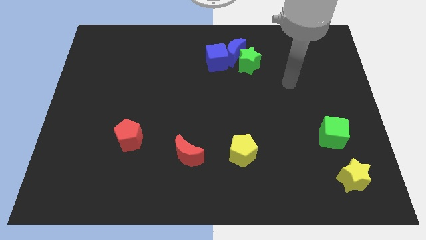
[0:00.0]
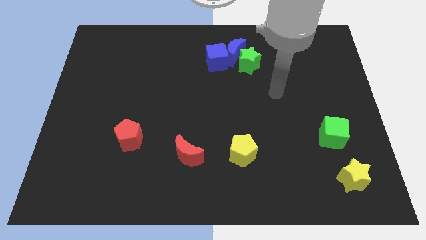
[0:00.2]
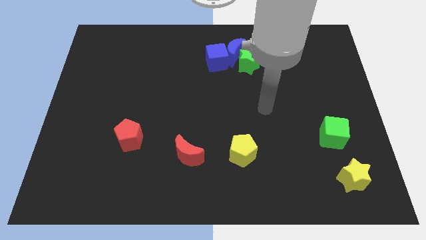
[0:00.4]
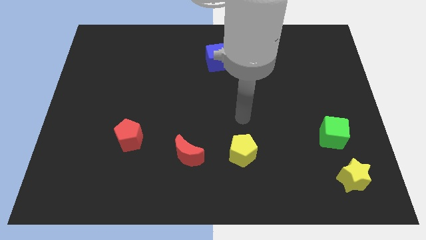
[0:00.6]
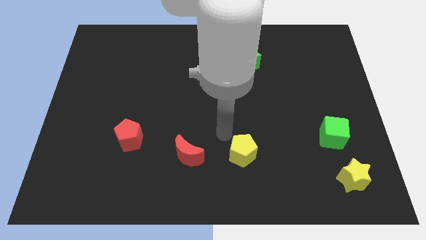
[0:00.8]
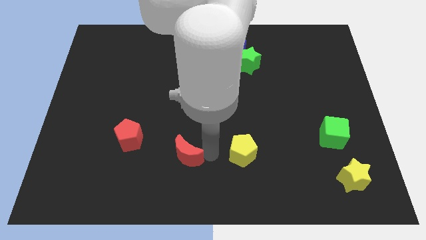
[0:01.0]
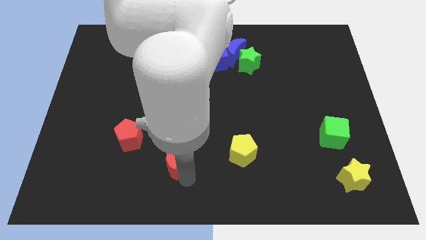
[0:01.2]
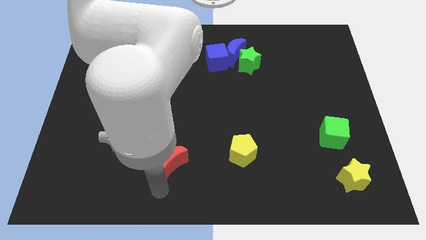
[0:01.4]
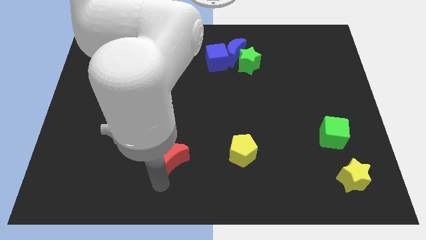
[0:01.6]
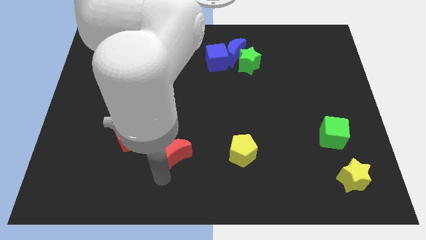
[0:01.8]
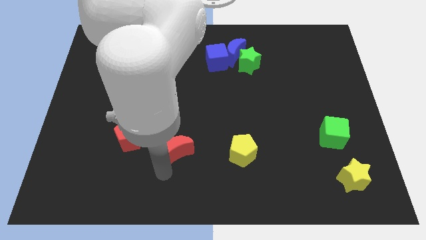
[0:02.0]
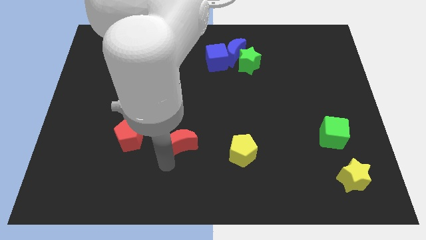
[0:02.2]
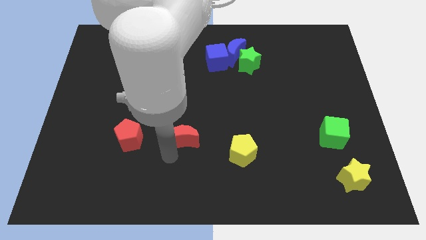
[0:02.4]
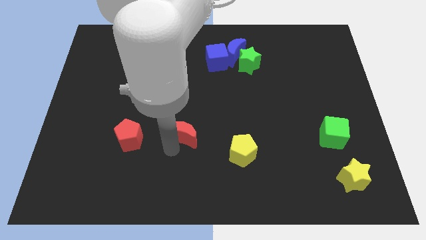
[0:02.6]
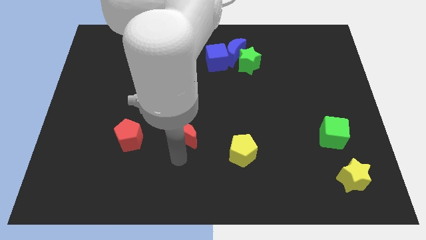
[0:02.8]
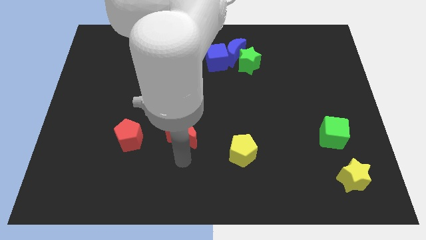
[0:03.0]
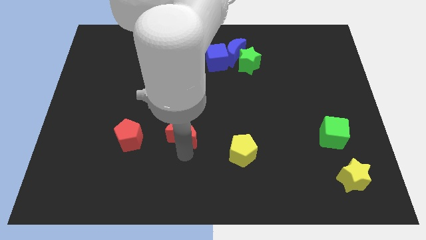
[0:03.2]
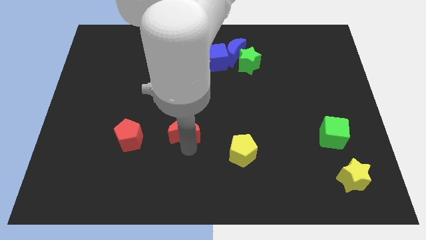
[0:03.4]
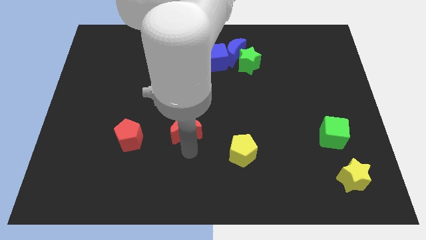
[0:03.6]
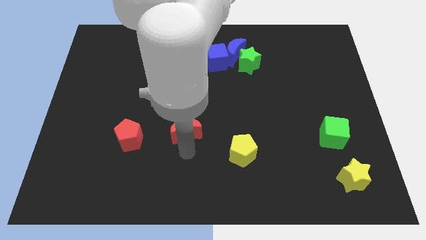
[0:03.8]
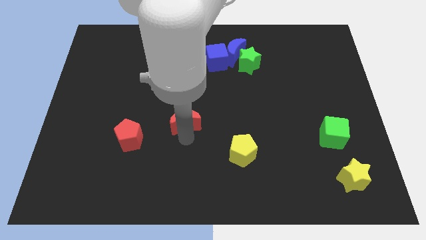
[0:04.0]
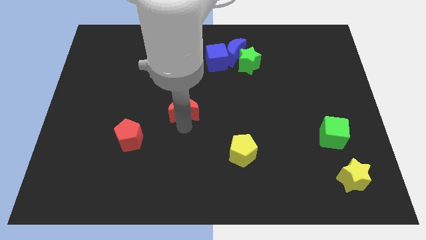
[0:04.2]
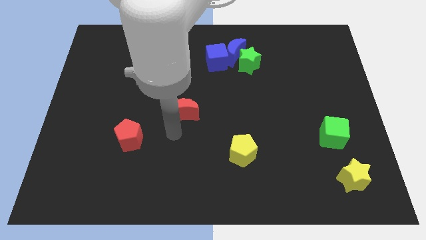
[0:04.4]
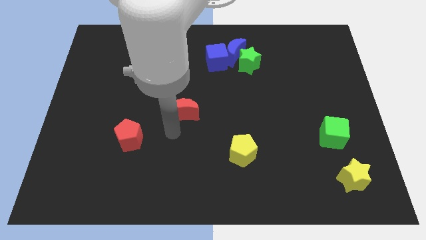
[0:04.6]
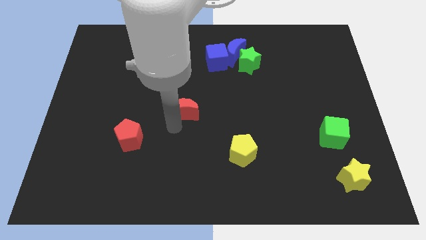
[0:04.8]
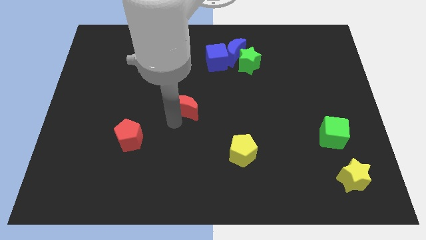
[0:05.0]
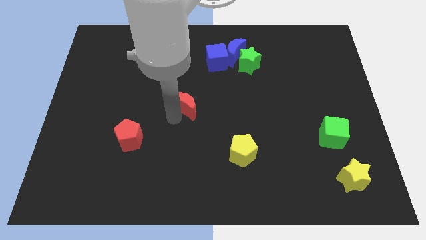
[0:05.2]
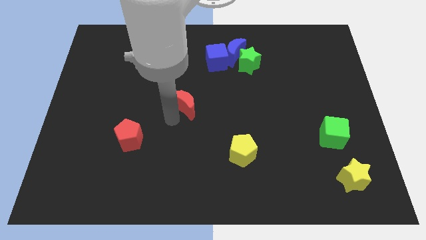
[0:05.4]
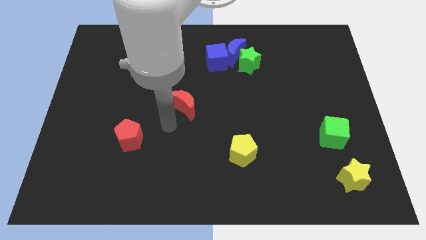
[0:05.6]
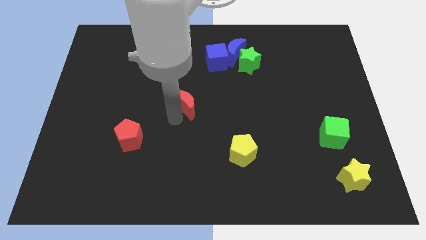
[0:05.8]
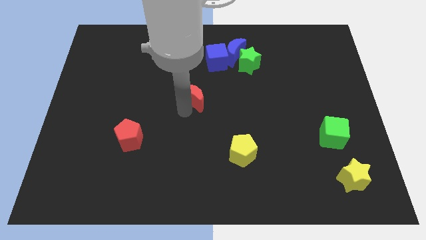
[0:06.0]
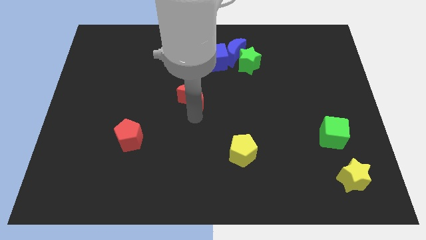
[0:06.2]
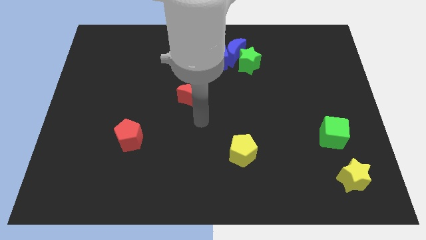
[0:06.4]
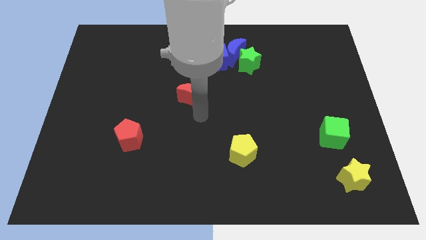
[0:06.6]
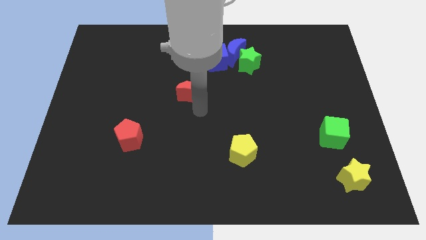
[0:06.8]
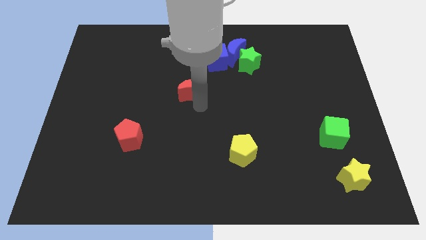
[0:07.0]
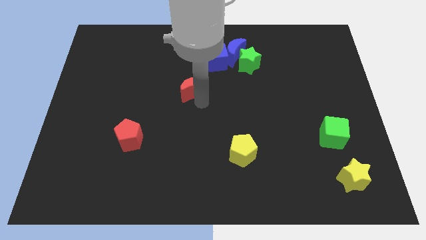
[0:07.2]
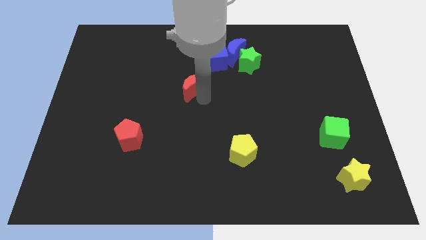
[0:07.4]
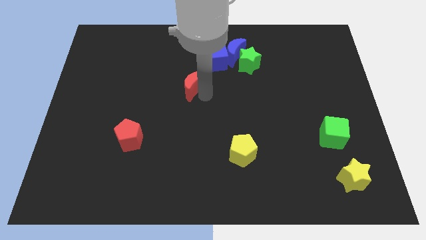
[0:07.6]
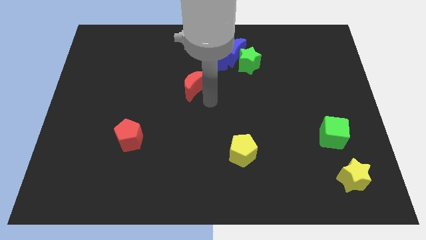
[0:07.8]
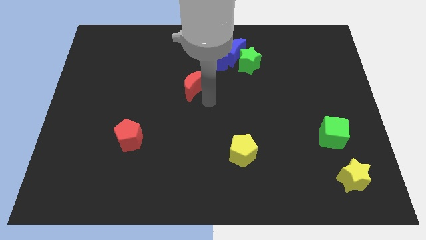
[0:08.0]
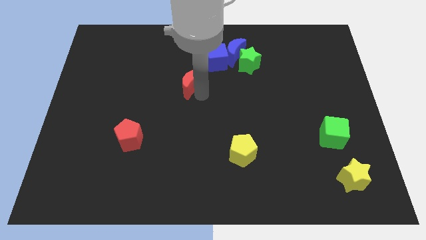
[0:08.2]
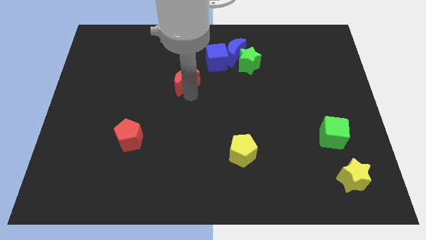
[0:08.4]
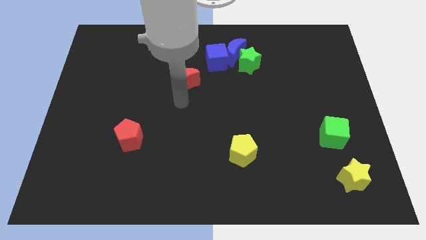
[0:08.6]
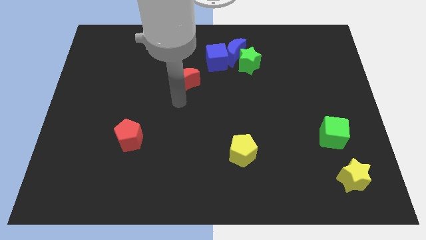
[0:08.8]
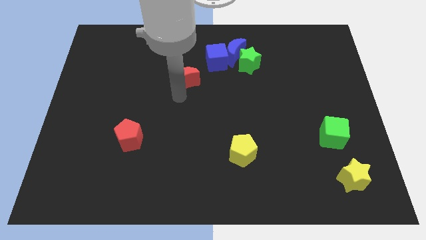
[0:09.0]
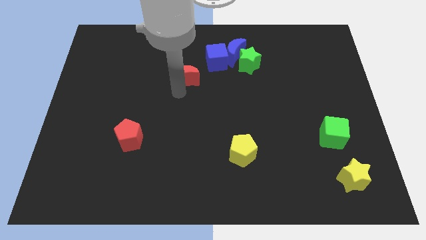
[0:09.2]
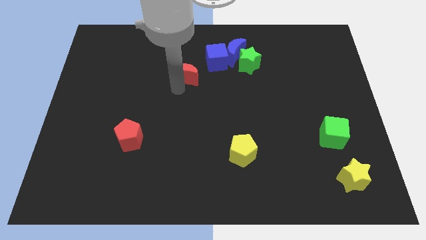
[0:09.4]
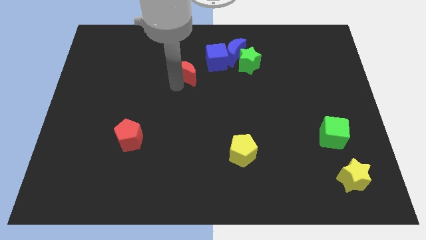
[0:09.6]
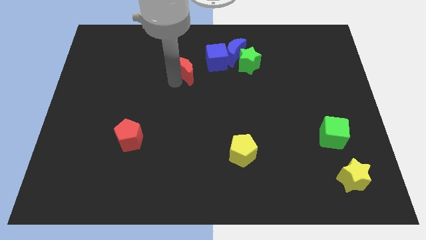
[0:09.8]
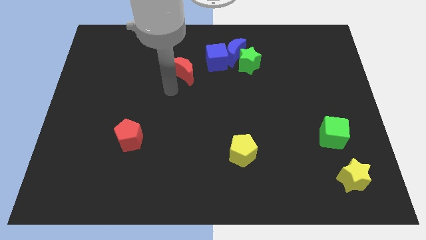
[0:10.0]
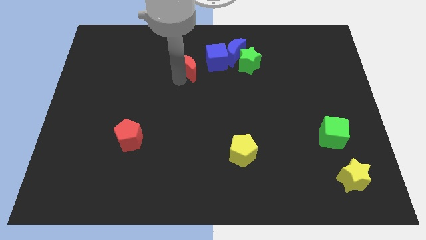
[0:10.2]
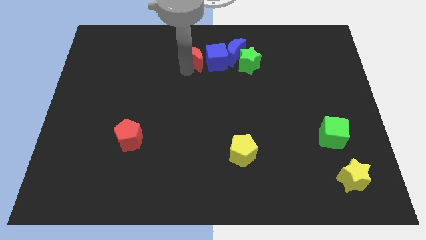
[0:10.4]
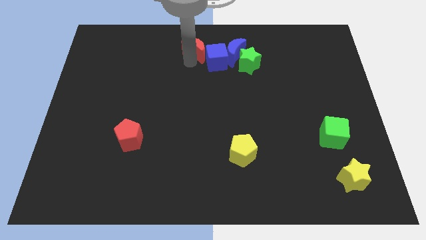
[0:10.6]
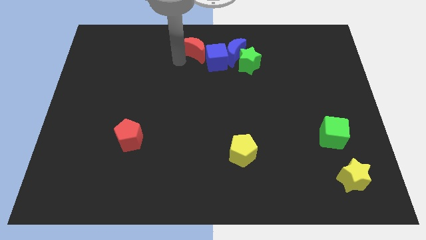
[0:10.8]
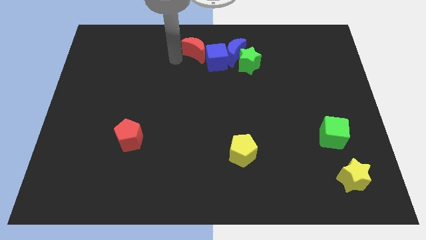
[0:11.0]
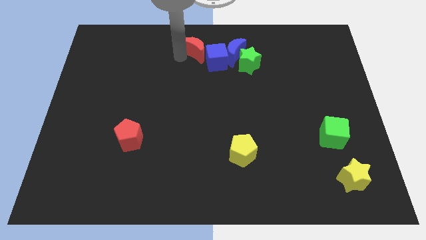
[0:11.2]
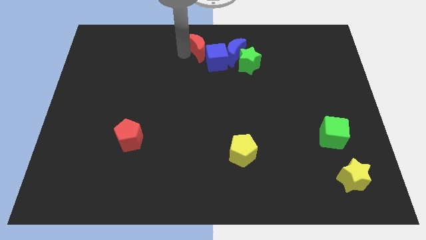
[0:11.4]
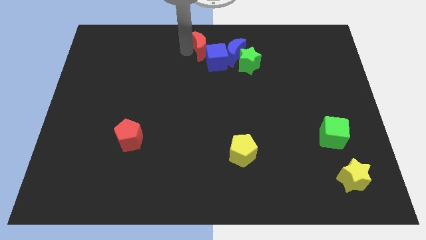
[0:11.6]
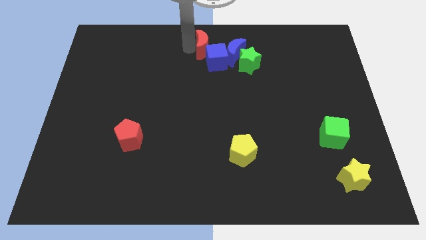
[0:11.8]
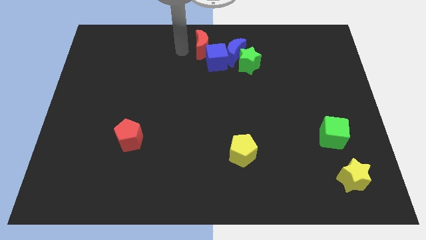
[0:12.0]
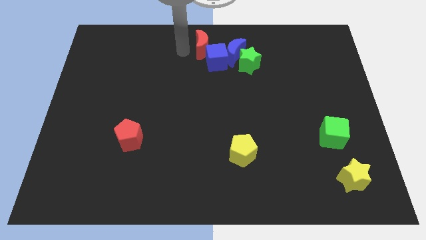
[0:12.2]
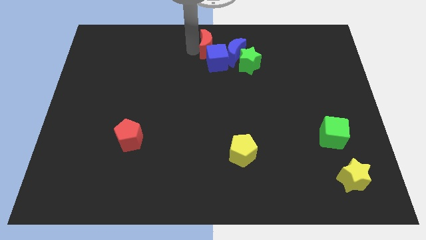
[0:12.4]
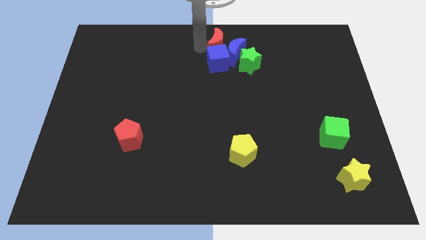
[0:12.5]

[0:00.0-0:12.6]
move the red moon next to the blue moon

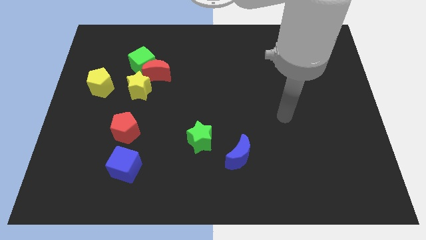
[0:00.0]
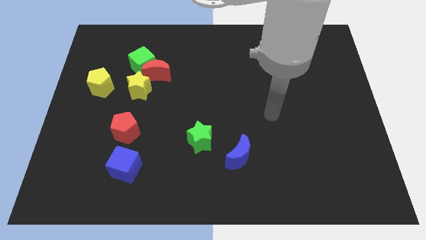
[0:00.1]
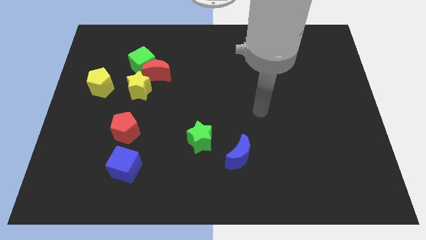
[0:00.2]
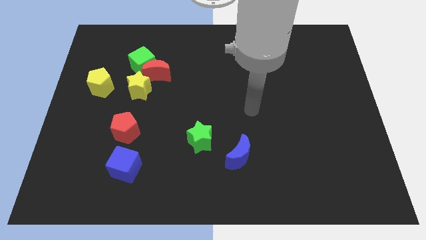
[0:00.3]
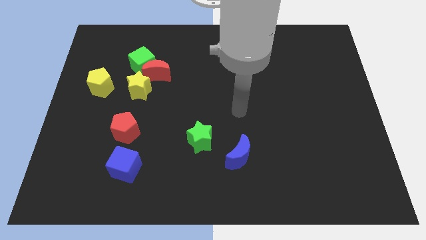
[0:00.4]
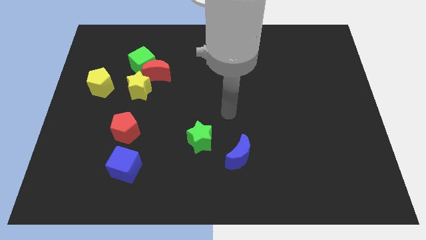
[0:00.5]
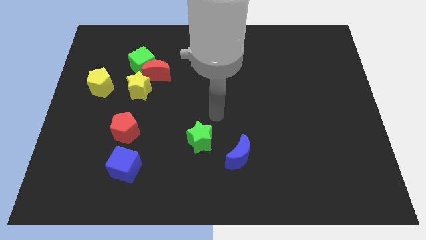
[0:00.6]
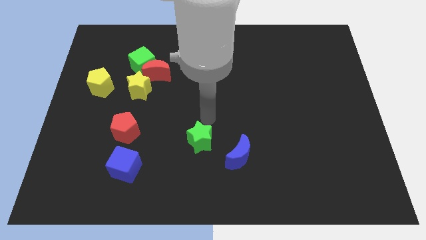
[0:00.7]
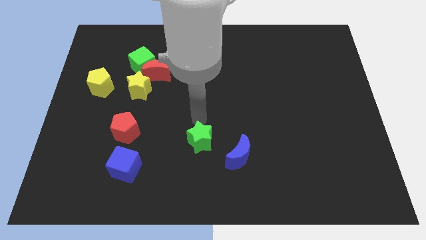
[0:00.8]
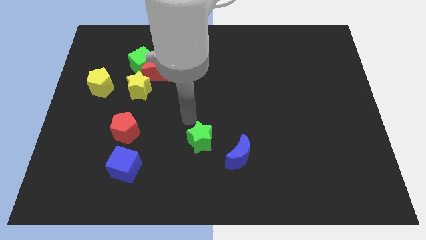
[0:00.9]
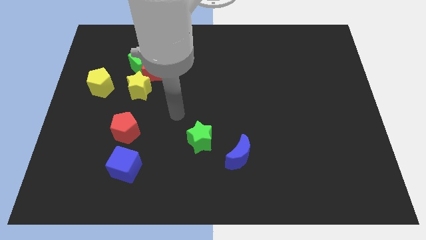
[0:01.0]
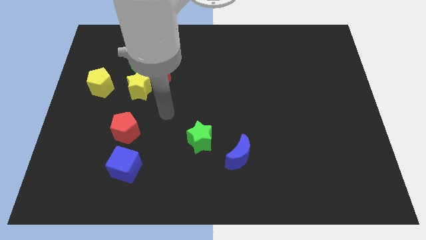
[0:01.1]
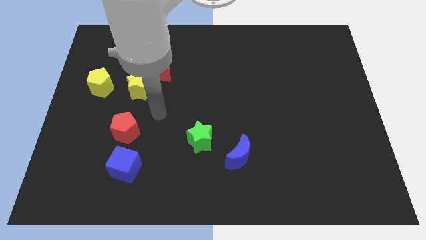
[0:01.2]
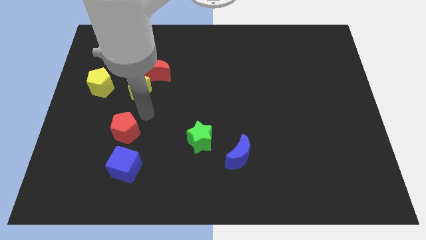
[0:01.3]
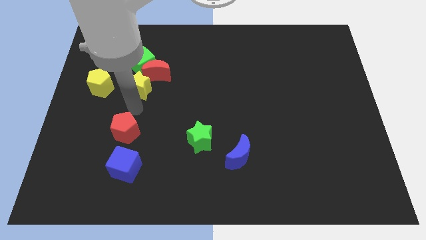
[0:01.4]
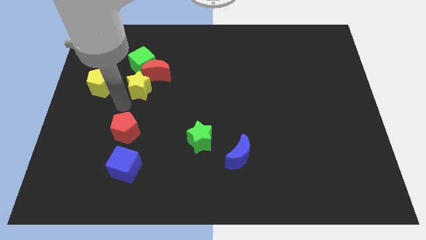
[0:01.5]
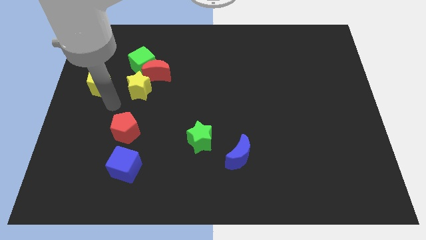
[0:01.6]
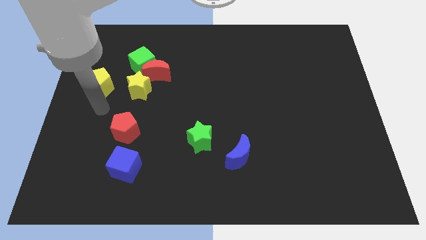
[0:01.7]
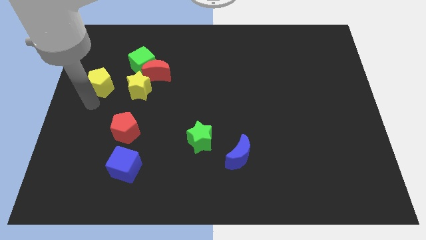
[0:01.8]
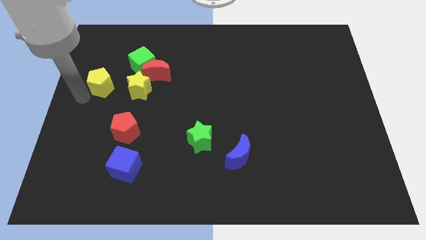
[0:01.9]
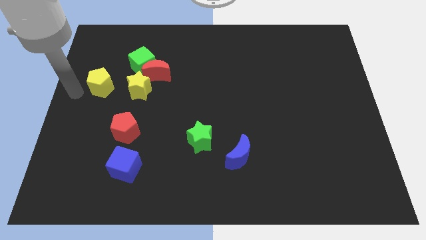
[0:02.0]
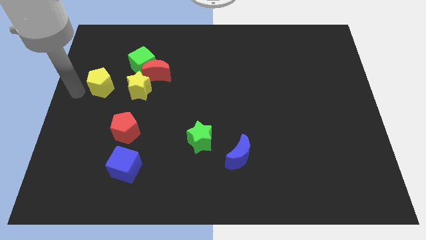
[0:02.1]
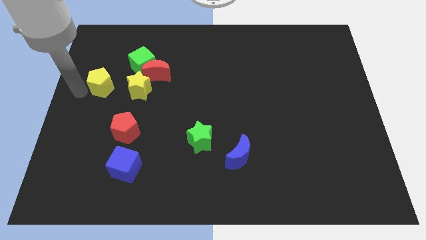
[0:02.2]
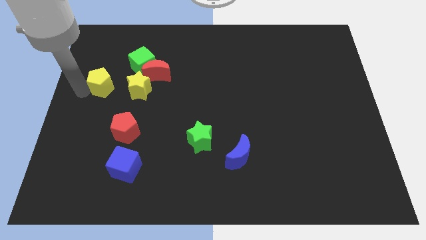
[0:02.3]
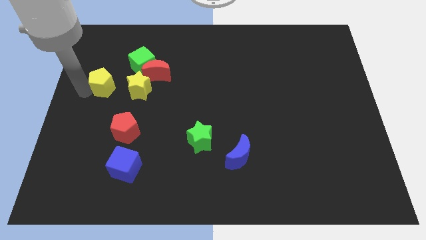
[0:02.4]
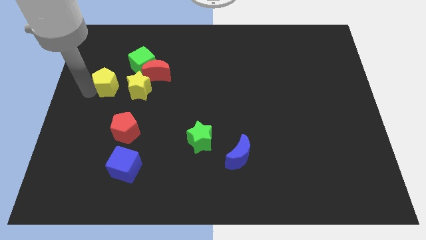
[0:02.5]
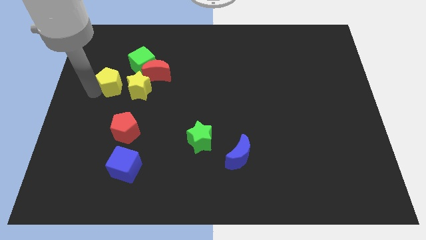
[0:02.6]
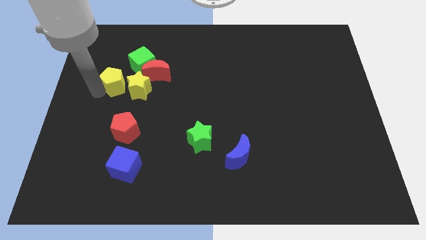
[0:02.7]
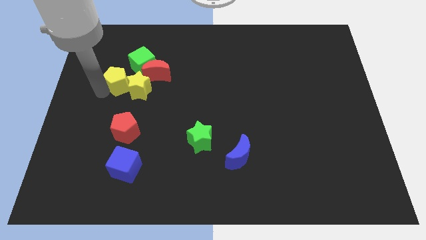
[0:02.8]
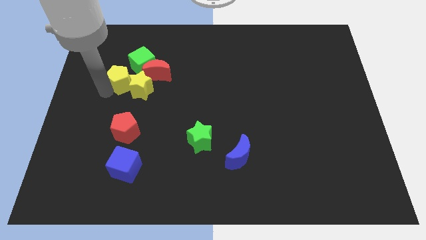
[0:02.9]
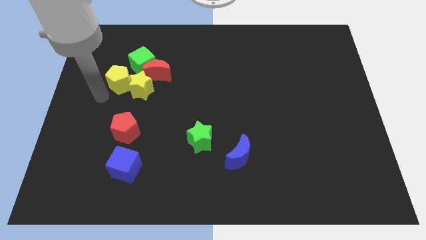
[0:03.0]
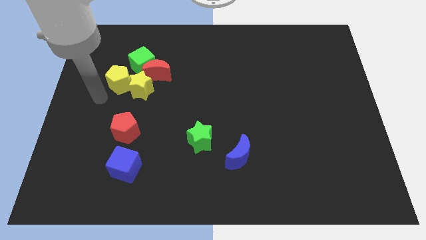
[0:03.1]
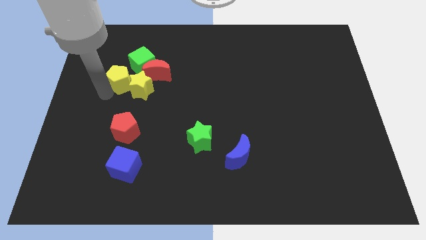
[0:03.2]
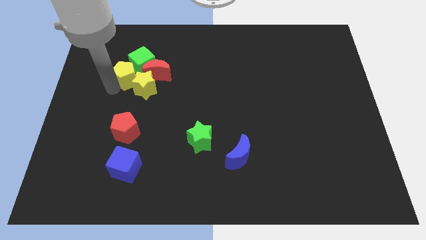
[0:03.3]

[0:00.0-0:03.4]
push the yellow pentagon next to the green cube
